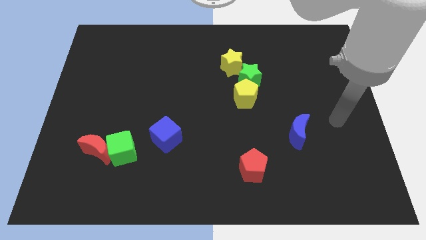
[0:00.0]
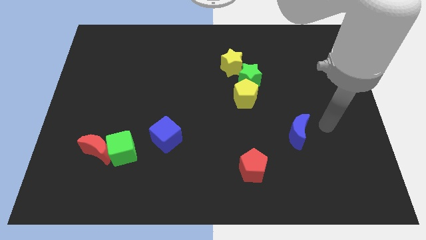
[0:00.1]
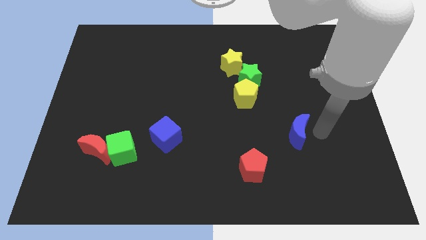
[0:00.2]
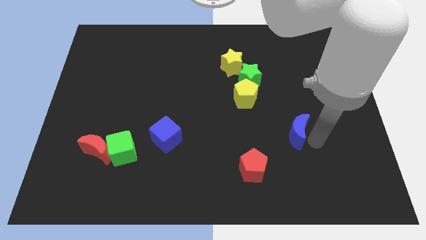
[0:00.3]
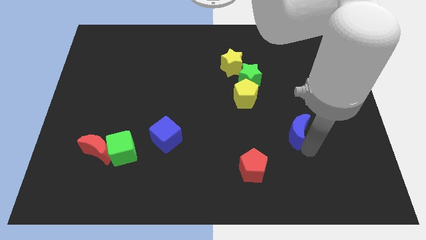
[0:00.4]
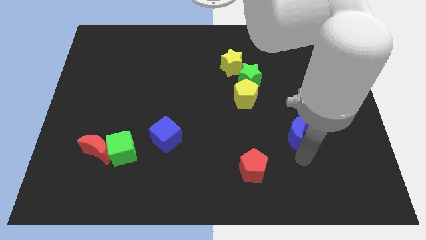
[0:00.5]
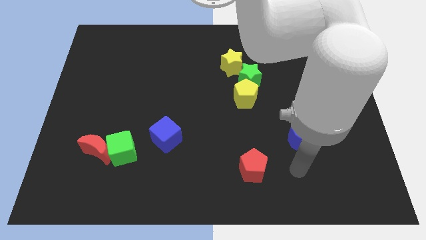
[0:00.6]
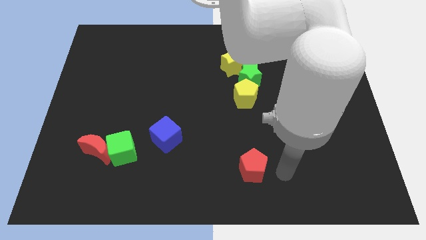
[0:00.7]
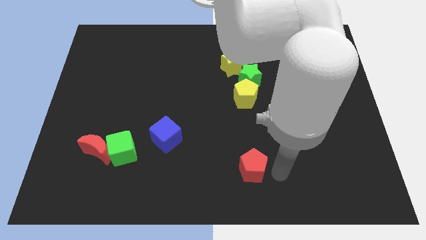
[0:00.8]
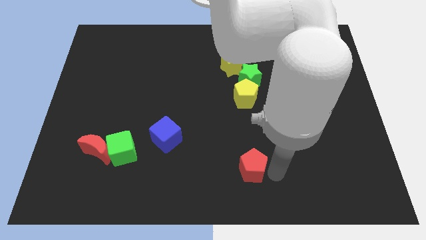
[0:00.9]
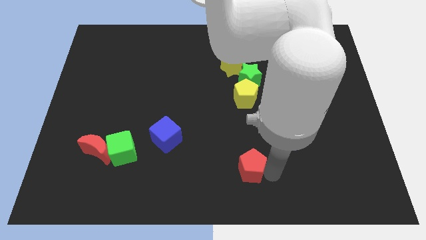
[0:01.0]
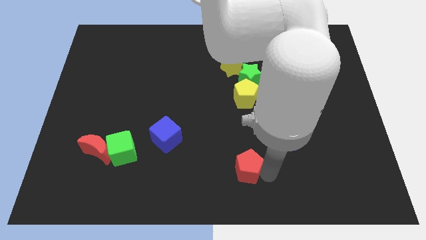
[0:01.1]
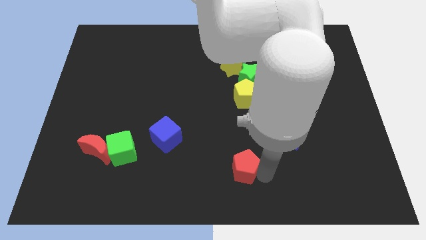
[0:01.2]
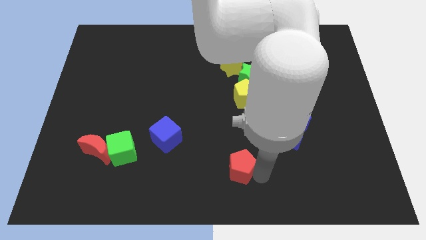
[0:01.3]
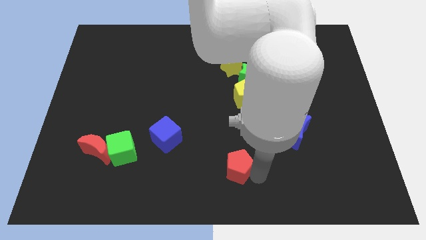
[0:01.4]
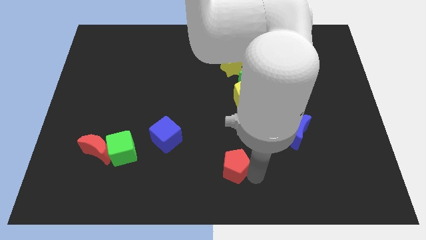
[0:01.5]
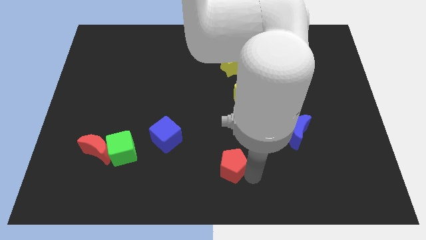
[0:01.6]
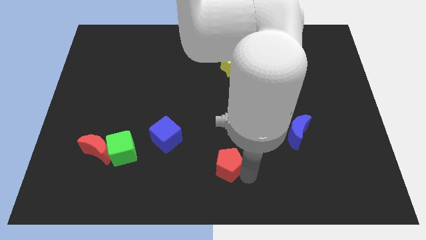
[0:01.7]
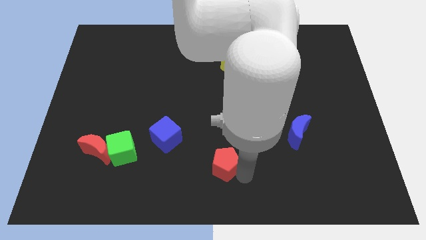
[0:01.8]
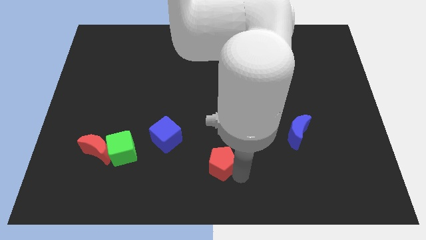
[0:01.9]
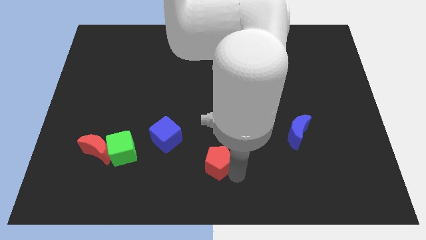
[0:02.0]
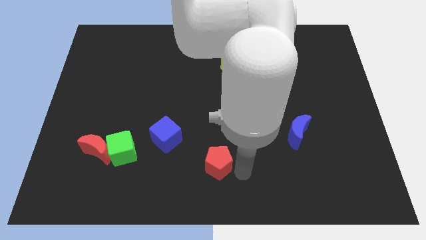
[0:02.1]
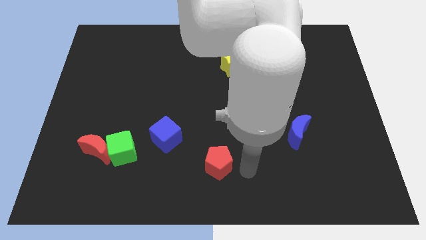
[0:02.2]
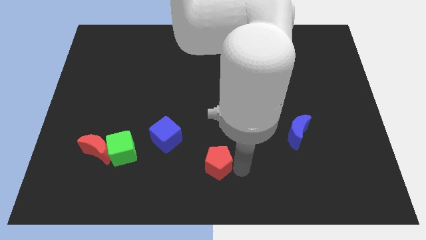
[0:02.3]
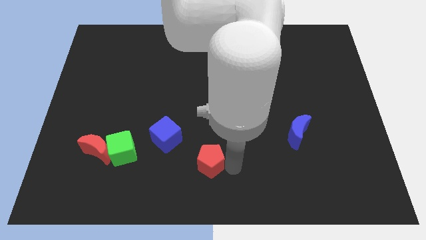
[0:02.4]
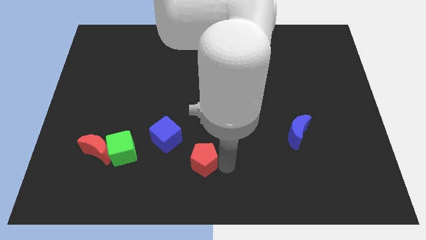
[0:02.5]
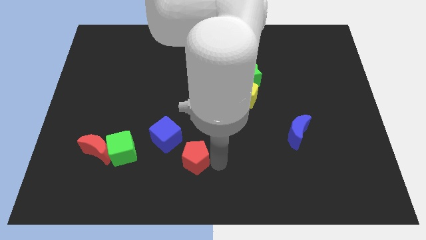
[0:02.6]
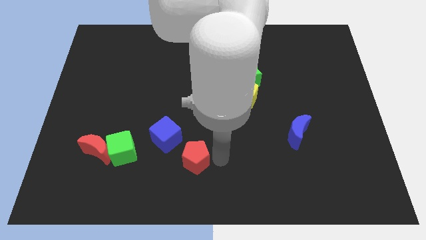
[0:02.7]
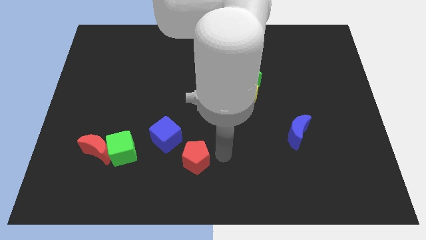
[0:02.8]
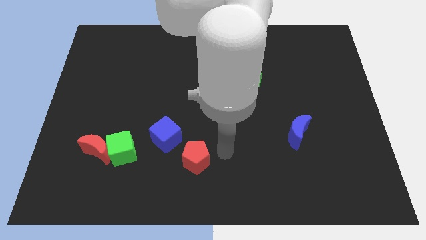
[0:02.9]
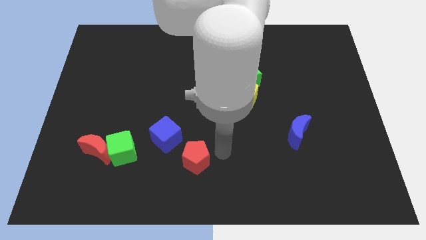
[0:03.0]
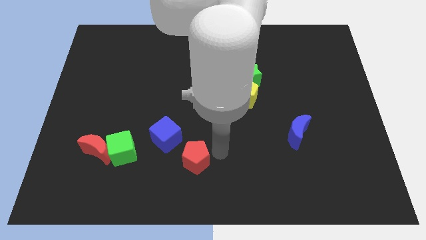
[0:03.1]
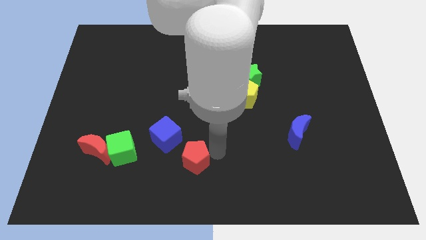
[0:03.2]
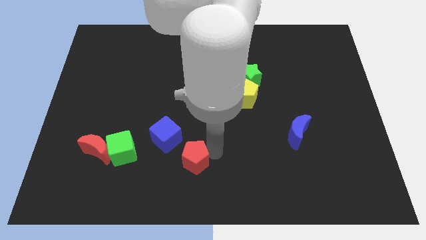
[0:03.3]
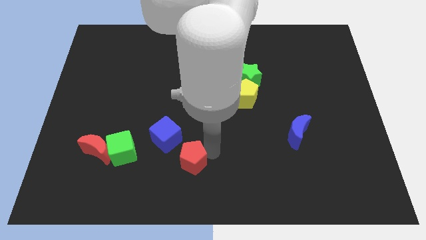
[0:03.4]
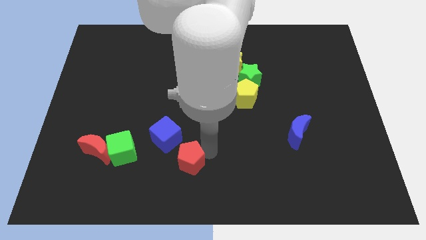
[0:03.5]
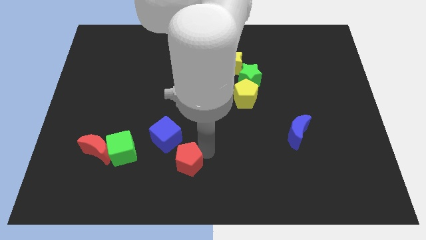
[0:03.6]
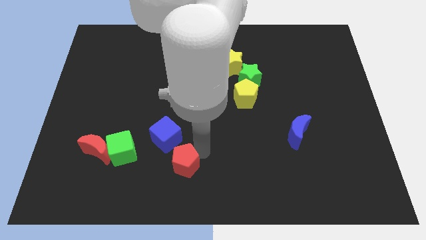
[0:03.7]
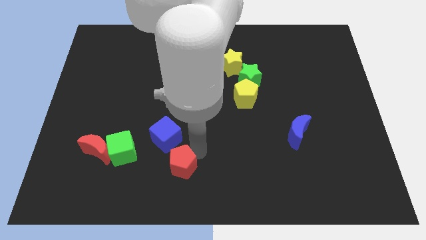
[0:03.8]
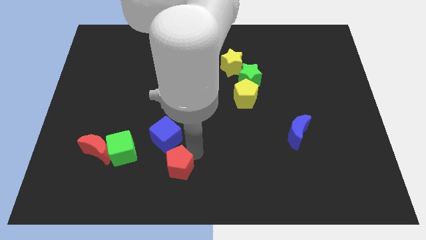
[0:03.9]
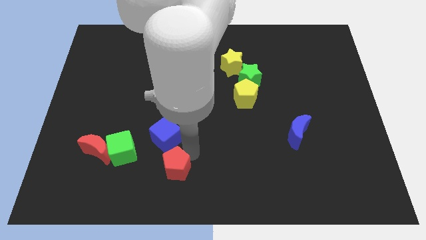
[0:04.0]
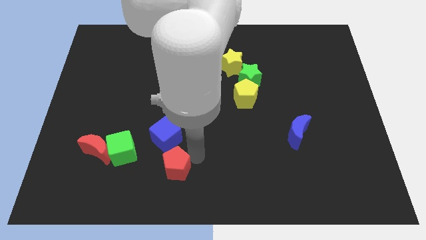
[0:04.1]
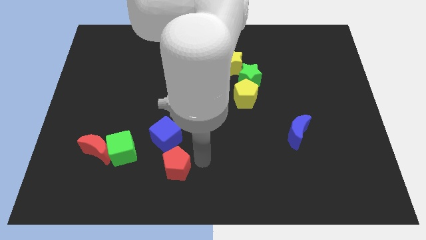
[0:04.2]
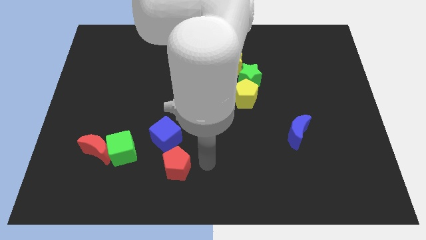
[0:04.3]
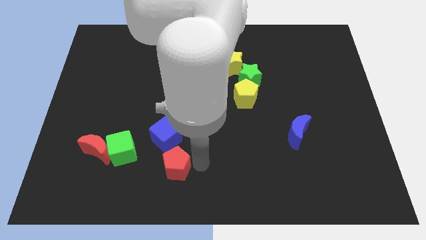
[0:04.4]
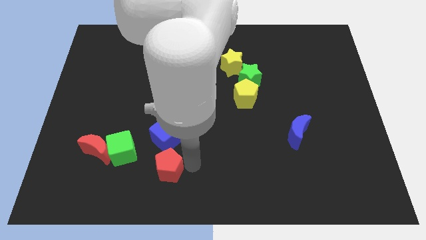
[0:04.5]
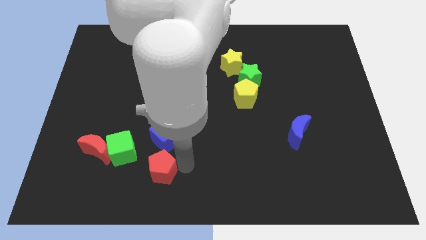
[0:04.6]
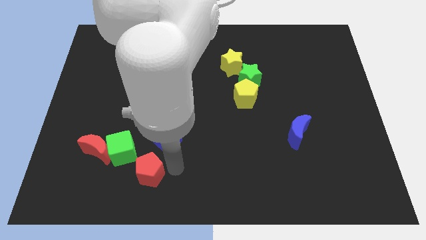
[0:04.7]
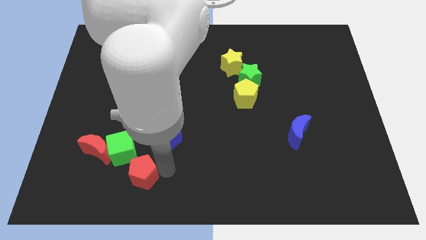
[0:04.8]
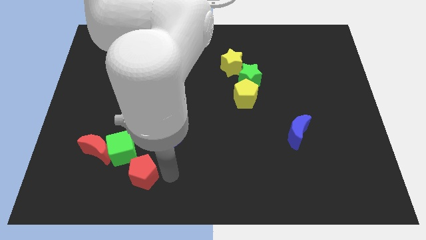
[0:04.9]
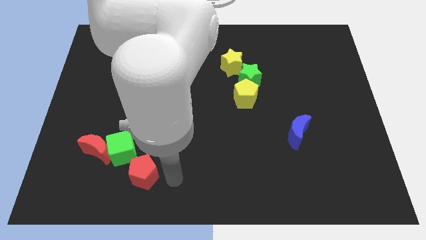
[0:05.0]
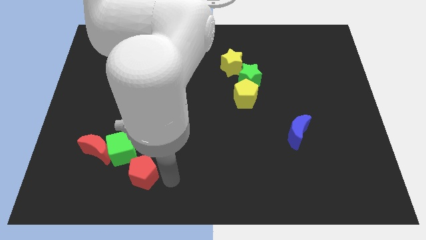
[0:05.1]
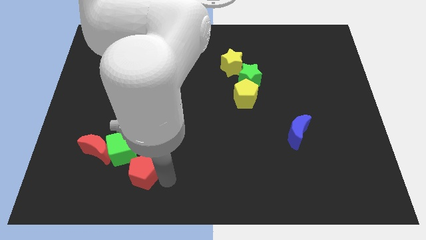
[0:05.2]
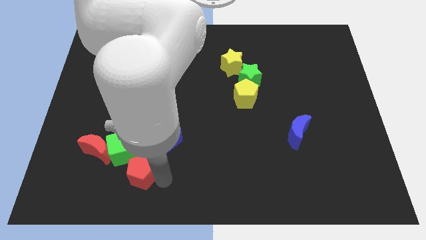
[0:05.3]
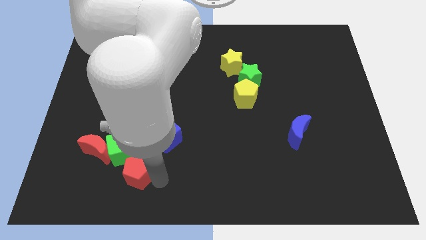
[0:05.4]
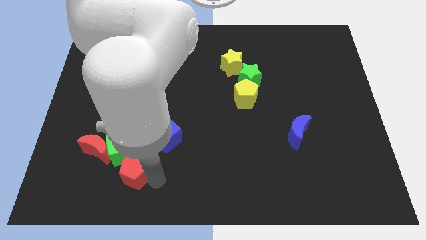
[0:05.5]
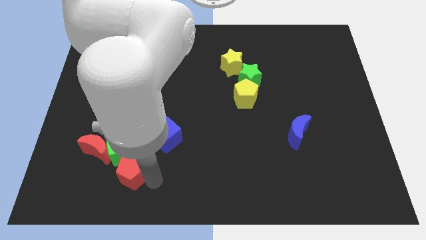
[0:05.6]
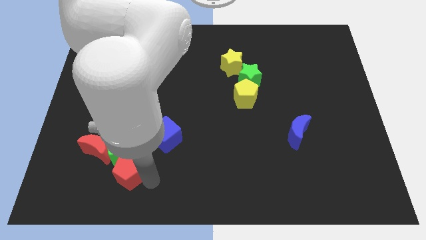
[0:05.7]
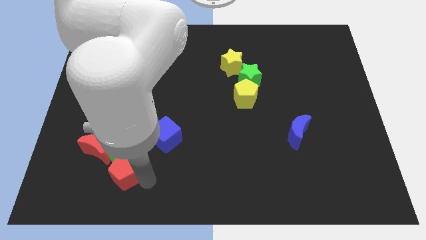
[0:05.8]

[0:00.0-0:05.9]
move the red pentagon to the bottom left side of the green cube
